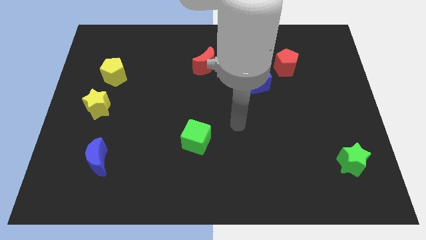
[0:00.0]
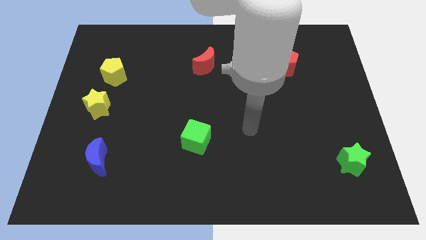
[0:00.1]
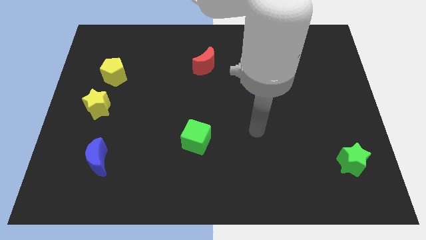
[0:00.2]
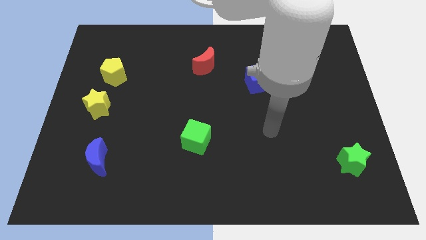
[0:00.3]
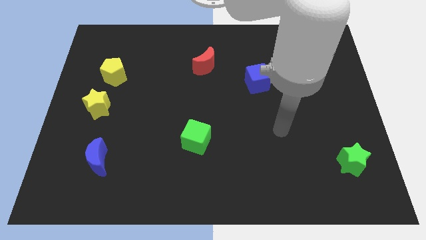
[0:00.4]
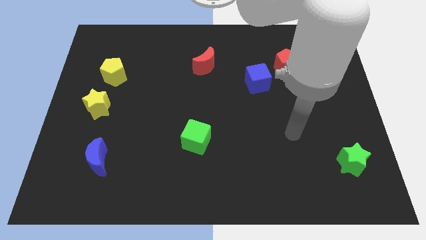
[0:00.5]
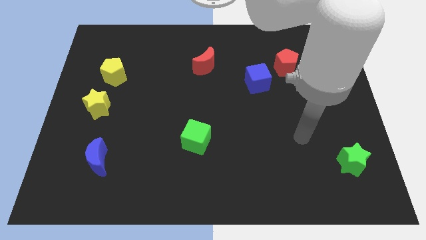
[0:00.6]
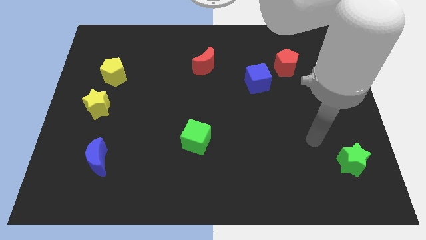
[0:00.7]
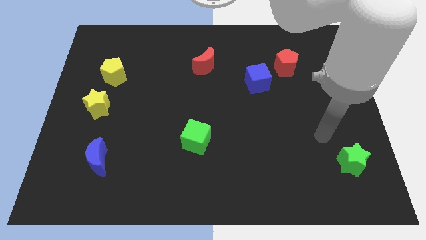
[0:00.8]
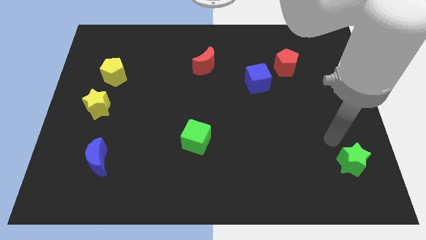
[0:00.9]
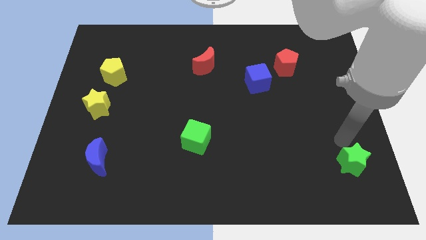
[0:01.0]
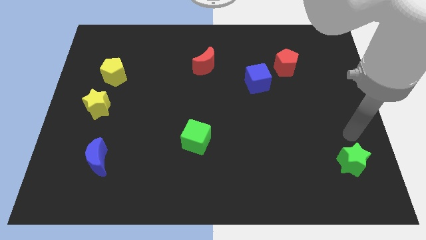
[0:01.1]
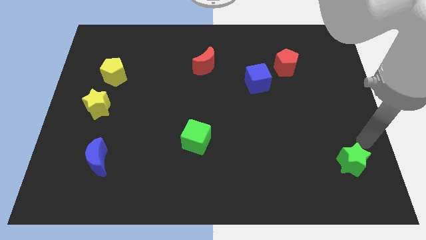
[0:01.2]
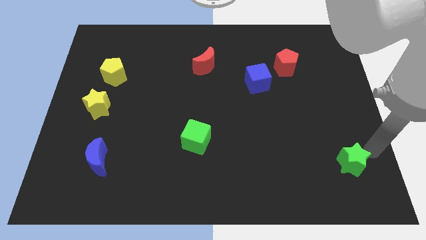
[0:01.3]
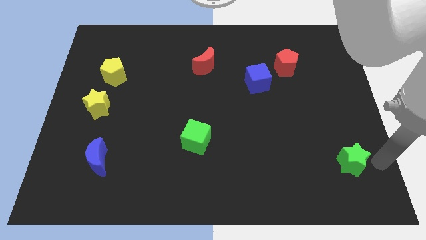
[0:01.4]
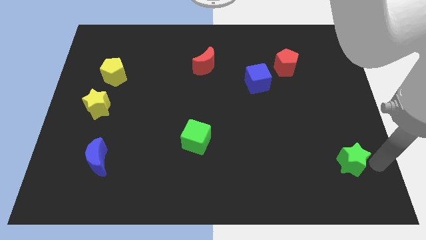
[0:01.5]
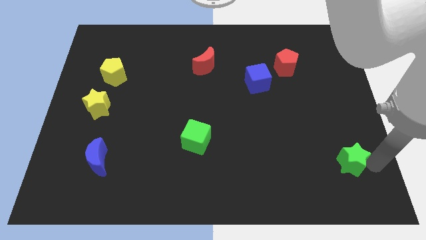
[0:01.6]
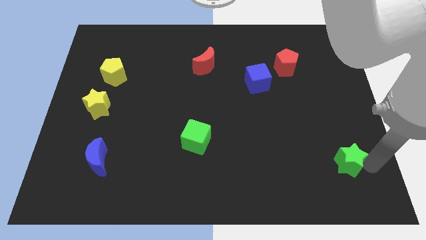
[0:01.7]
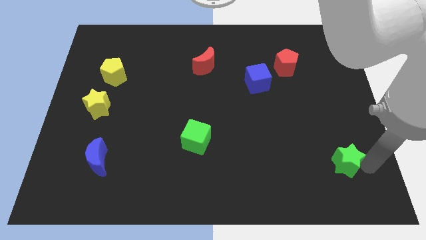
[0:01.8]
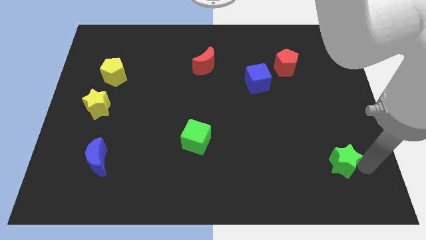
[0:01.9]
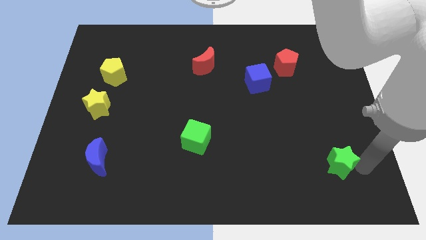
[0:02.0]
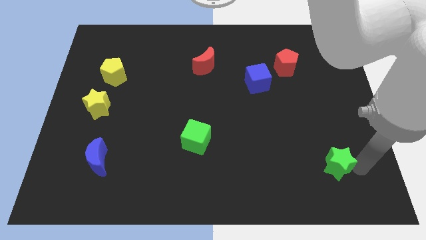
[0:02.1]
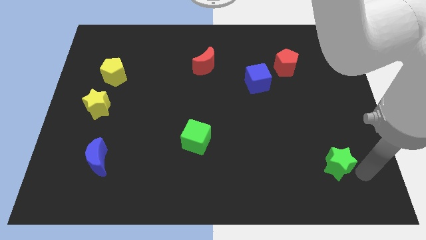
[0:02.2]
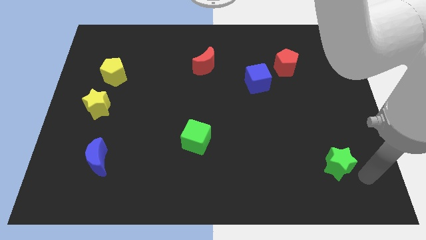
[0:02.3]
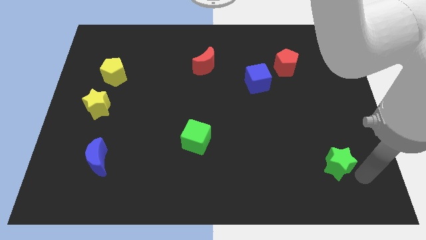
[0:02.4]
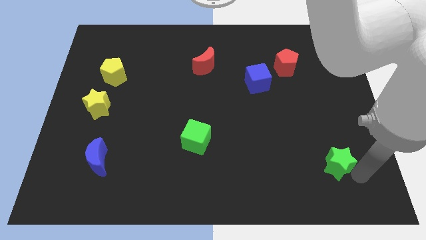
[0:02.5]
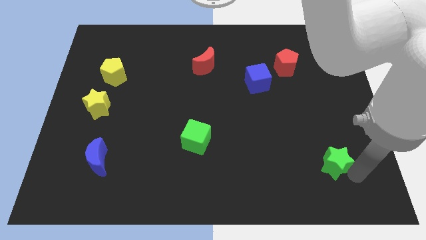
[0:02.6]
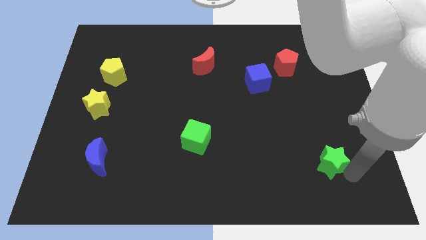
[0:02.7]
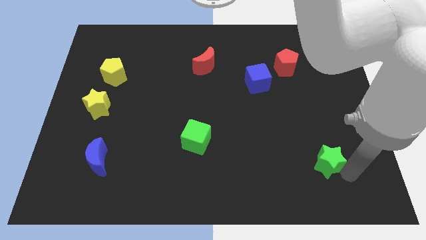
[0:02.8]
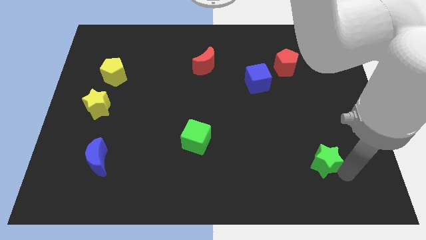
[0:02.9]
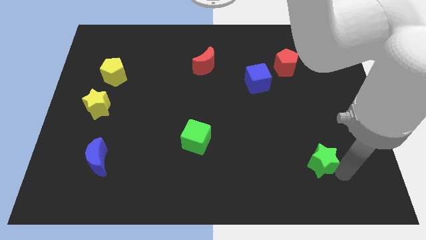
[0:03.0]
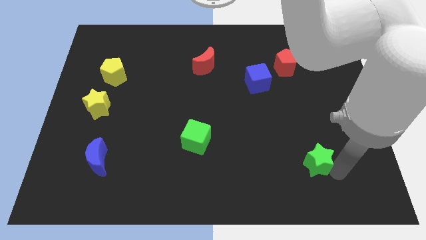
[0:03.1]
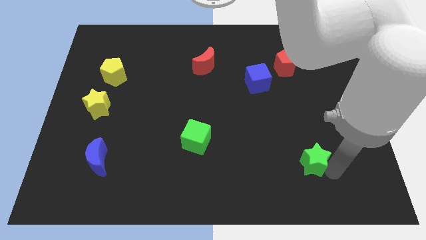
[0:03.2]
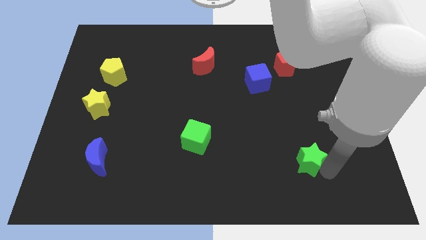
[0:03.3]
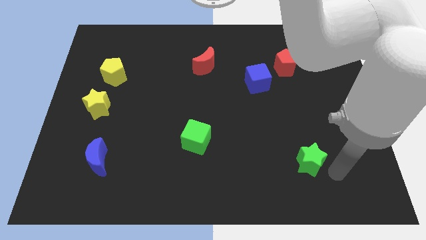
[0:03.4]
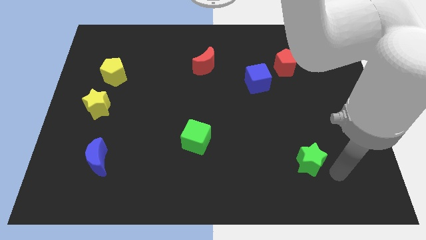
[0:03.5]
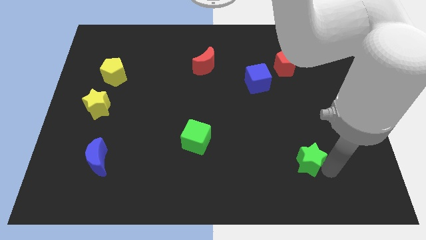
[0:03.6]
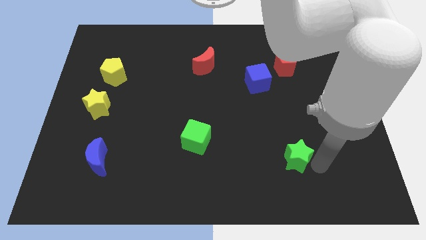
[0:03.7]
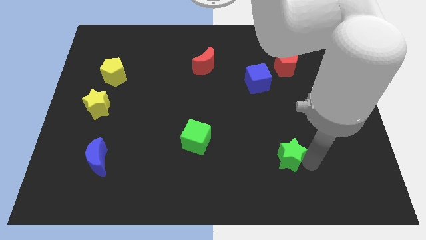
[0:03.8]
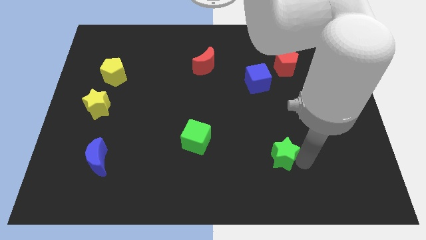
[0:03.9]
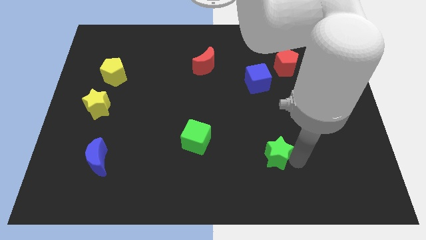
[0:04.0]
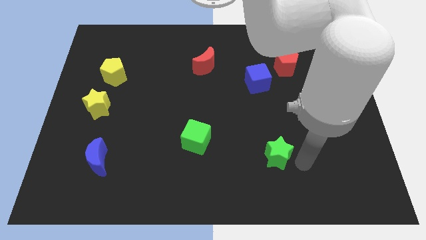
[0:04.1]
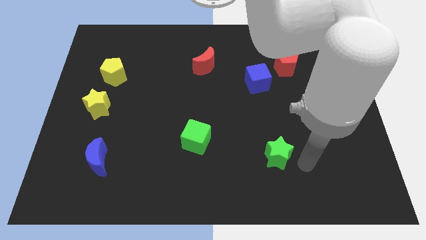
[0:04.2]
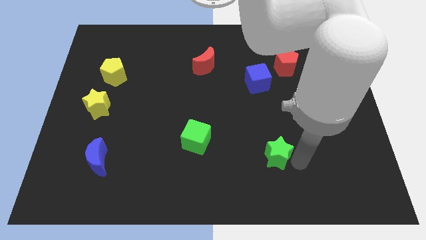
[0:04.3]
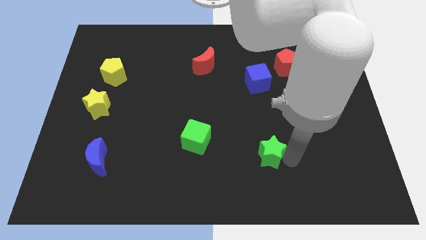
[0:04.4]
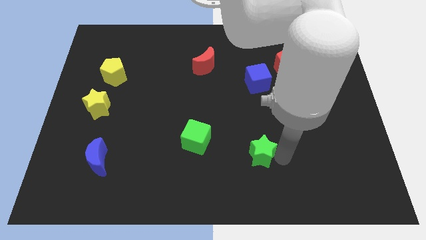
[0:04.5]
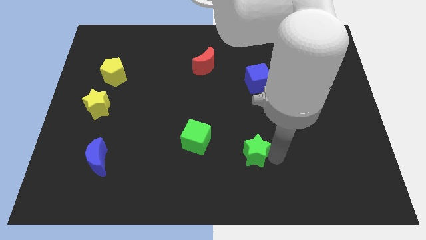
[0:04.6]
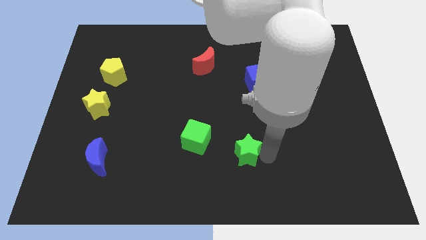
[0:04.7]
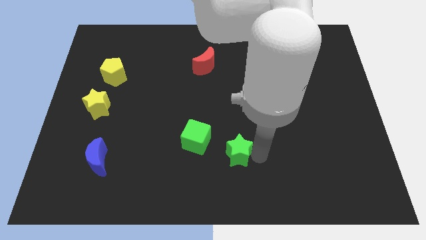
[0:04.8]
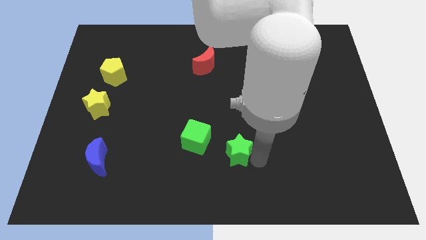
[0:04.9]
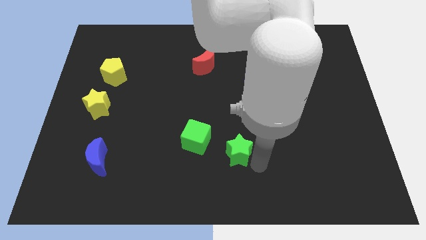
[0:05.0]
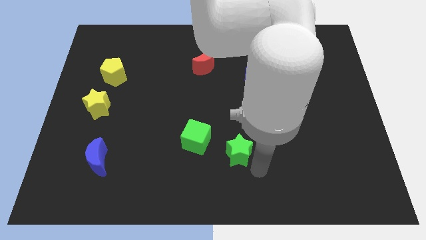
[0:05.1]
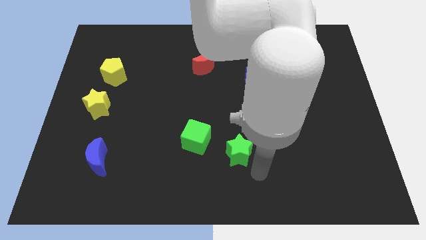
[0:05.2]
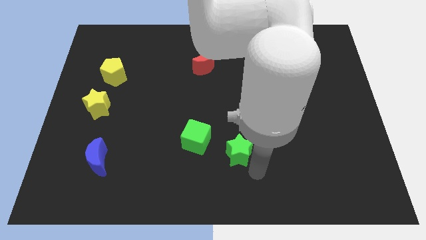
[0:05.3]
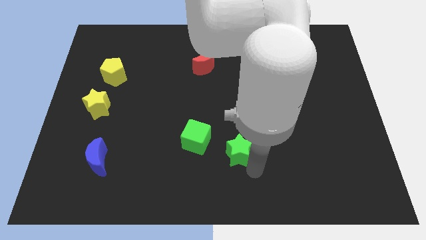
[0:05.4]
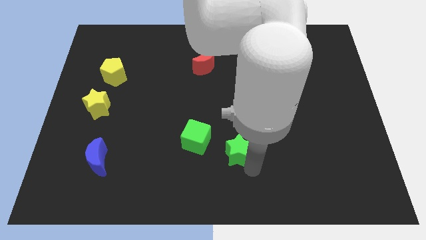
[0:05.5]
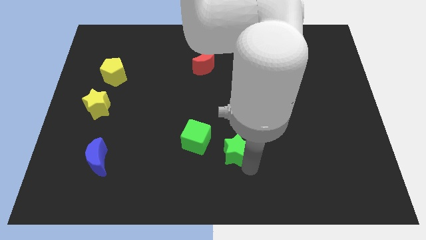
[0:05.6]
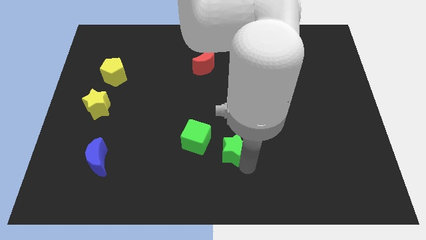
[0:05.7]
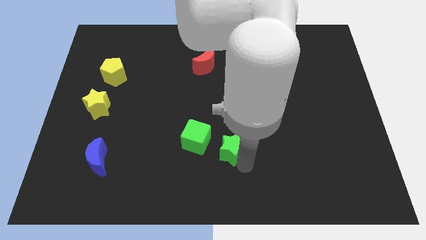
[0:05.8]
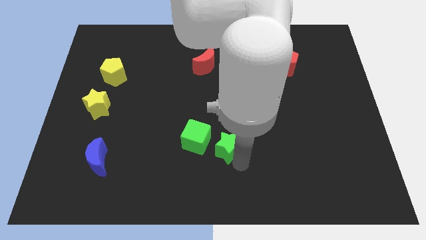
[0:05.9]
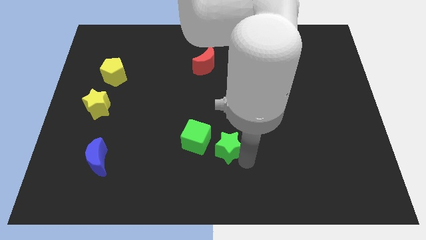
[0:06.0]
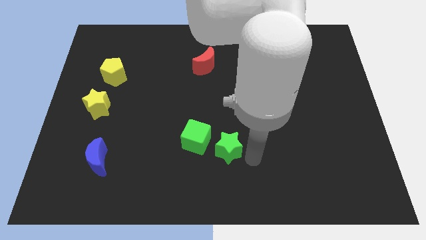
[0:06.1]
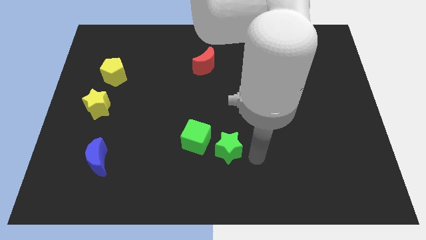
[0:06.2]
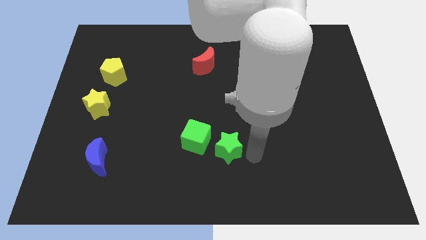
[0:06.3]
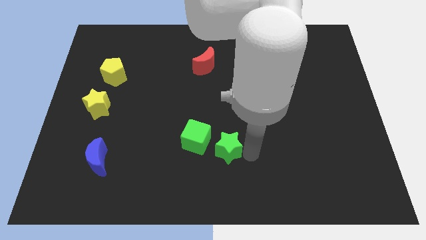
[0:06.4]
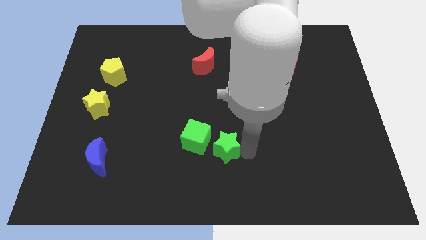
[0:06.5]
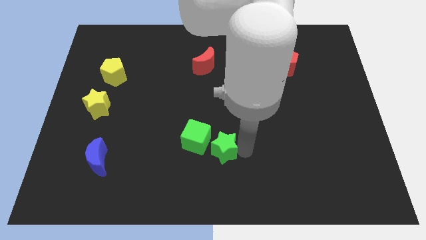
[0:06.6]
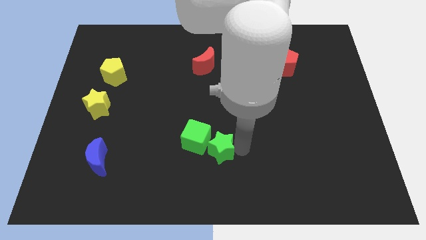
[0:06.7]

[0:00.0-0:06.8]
slide the green star next to the green cube

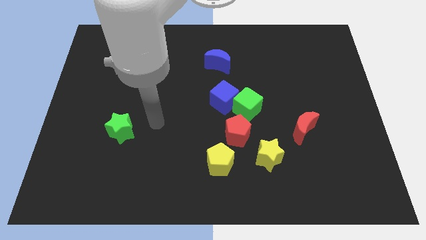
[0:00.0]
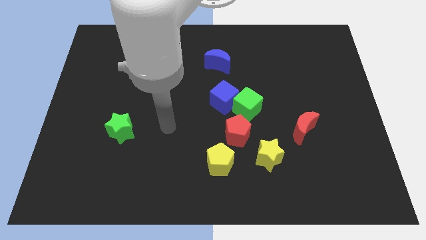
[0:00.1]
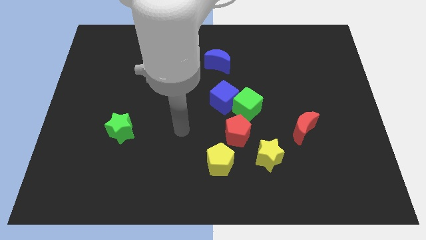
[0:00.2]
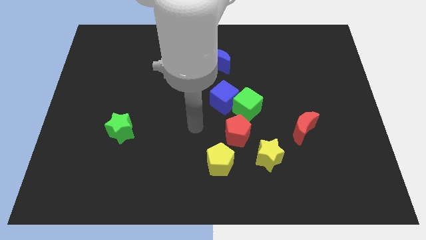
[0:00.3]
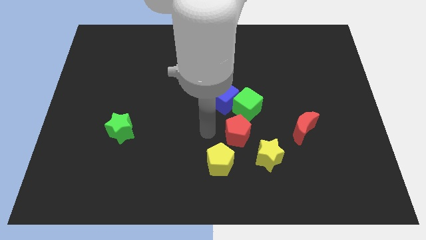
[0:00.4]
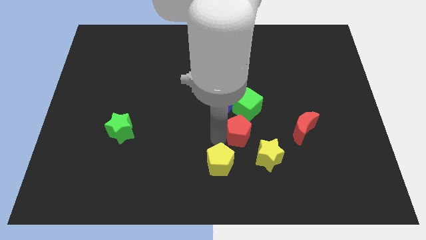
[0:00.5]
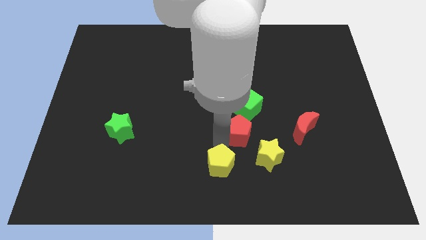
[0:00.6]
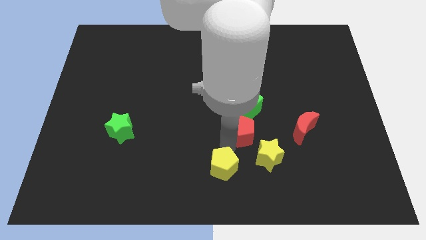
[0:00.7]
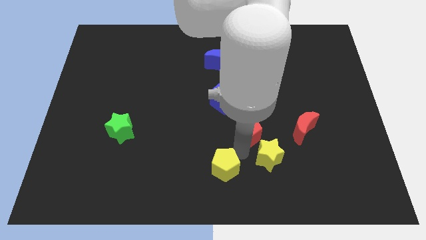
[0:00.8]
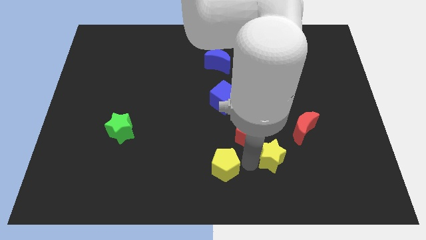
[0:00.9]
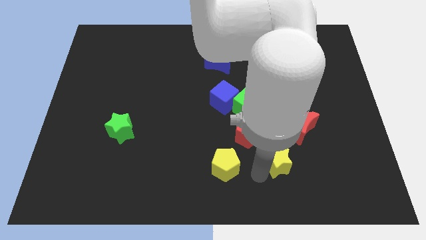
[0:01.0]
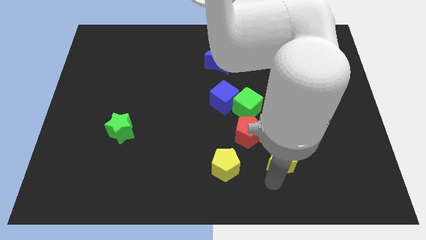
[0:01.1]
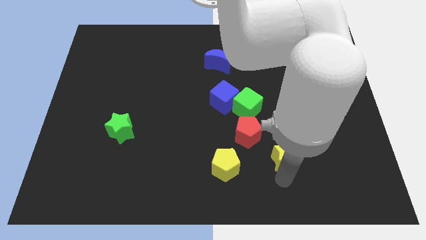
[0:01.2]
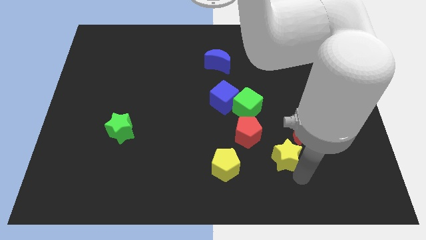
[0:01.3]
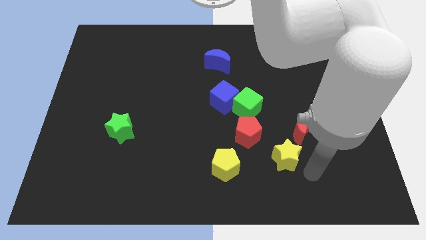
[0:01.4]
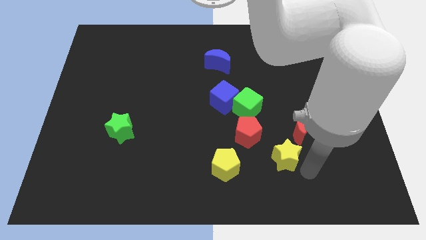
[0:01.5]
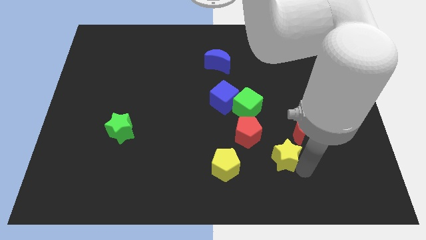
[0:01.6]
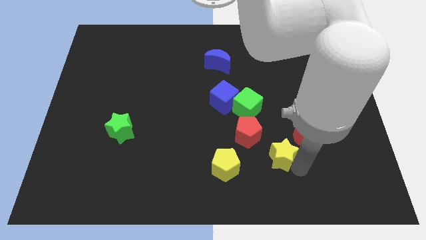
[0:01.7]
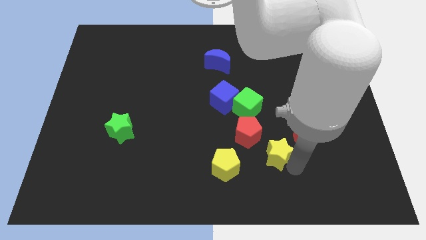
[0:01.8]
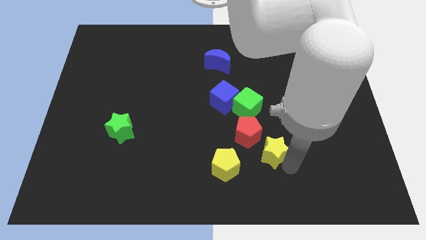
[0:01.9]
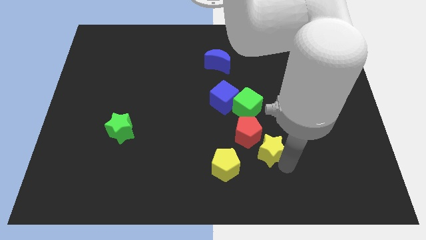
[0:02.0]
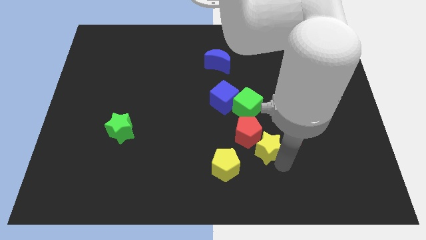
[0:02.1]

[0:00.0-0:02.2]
move the yellow star close to the red pentagon
